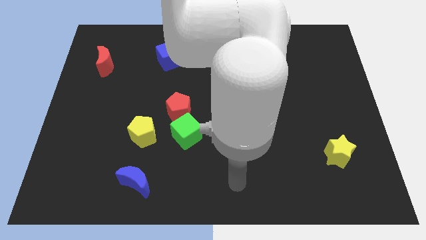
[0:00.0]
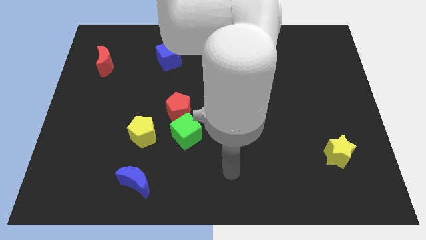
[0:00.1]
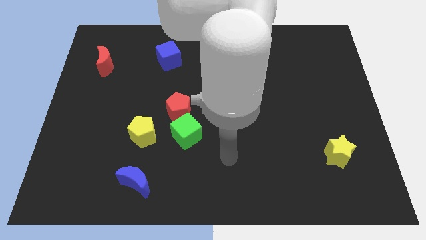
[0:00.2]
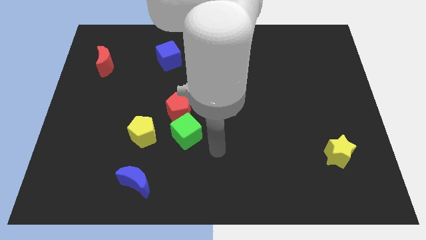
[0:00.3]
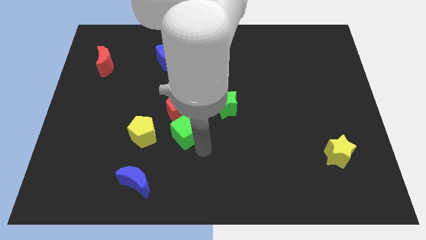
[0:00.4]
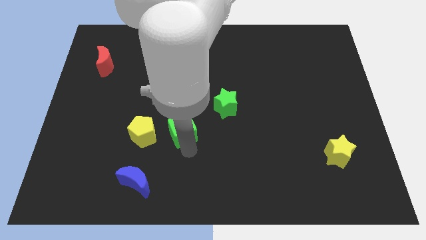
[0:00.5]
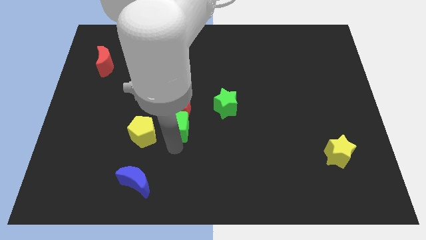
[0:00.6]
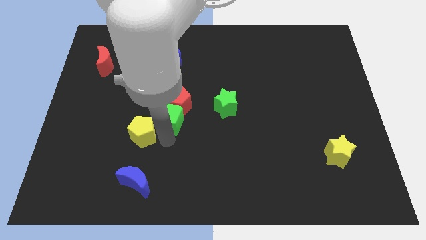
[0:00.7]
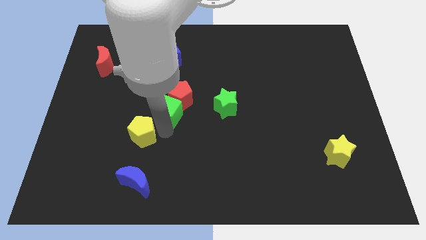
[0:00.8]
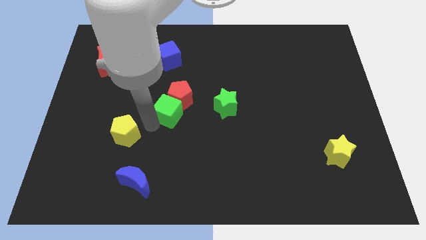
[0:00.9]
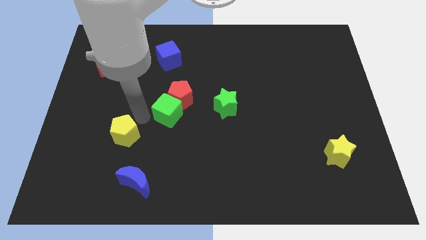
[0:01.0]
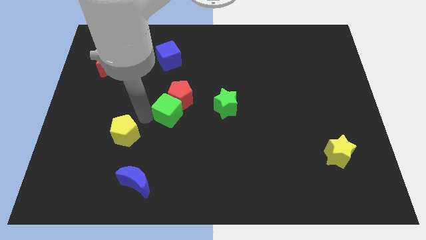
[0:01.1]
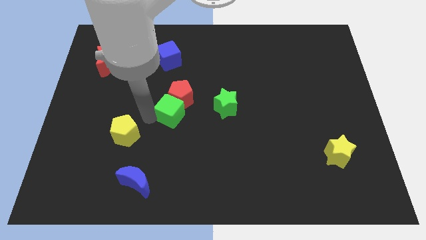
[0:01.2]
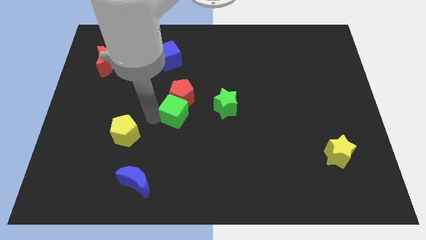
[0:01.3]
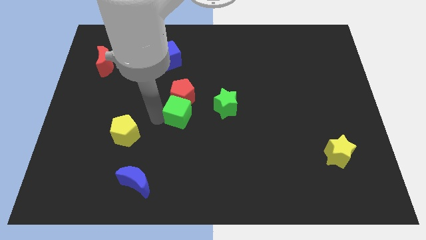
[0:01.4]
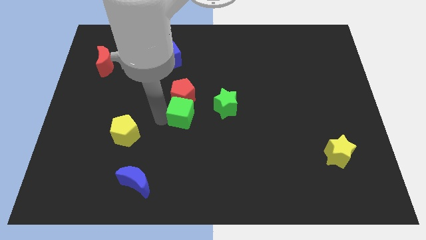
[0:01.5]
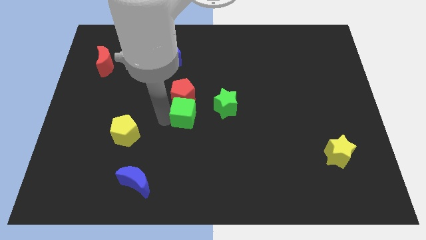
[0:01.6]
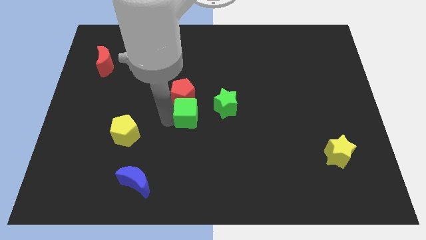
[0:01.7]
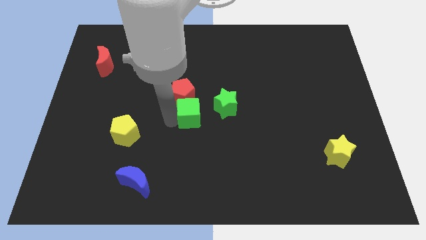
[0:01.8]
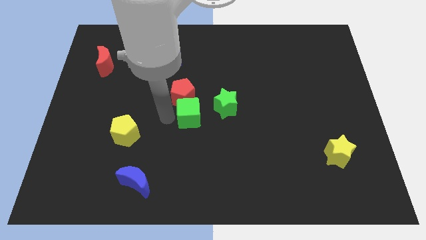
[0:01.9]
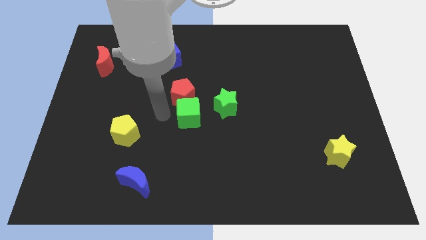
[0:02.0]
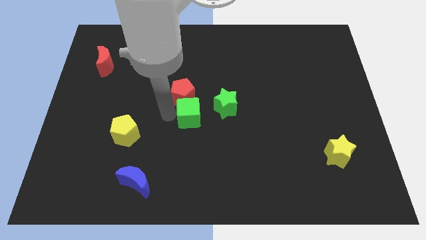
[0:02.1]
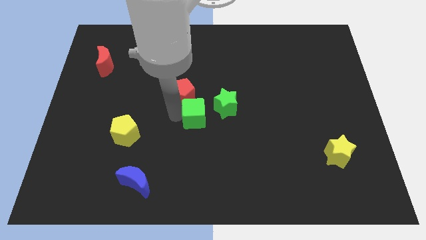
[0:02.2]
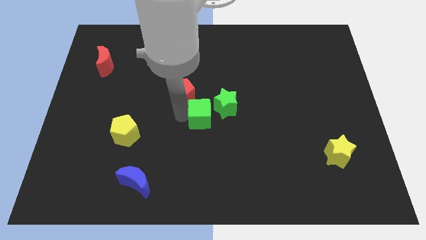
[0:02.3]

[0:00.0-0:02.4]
separate the green cube from the red pentagon and yellow pentagon

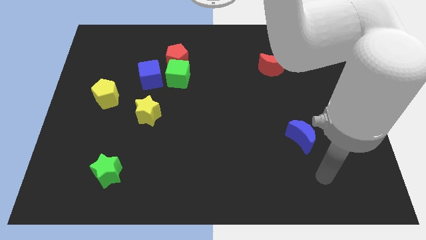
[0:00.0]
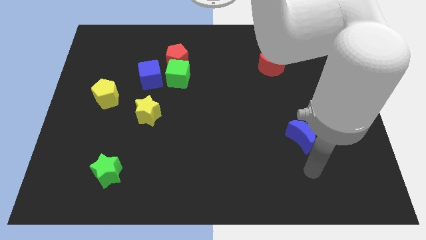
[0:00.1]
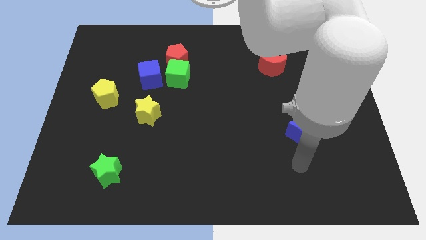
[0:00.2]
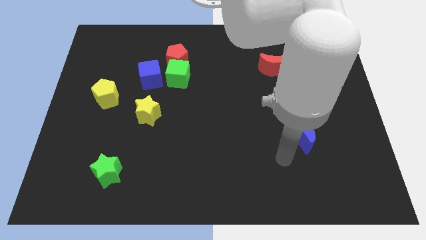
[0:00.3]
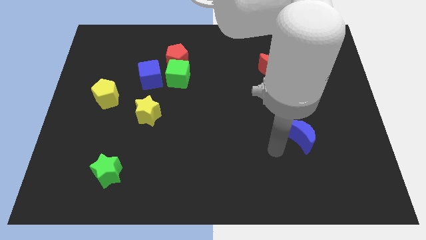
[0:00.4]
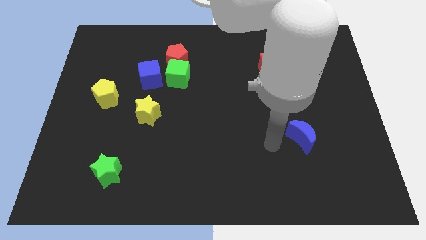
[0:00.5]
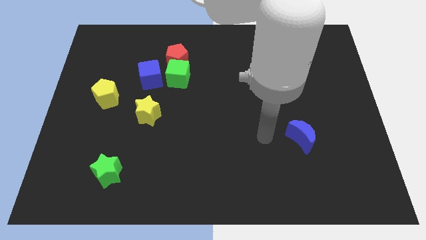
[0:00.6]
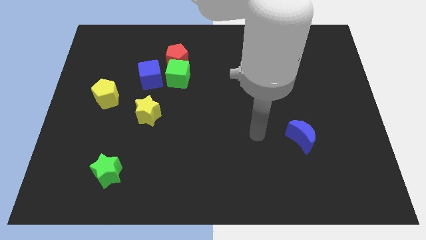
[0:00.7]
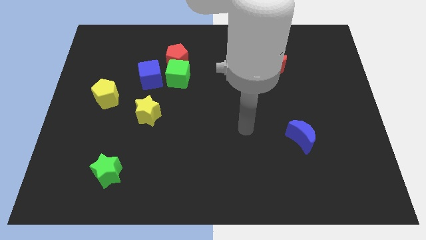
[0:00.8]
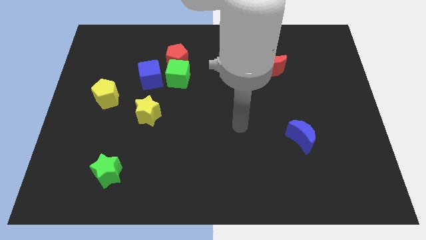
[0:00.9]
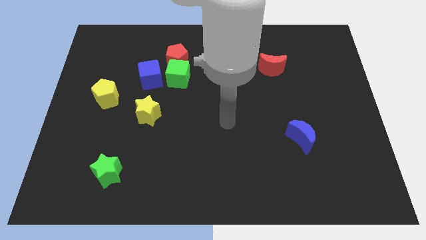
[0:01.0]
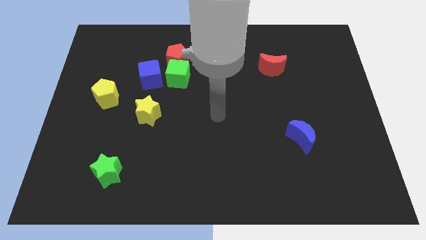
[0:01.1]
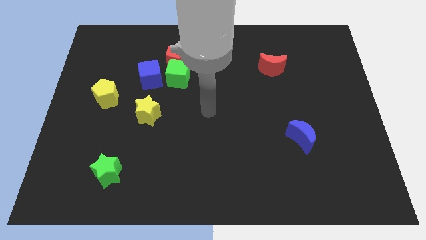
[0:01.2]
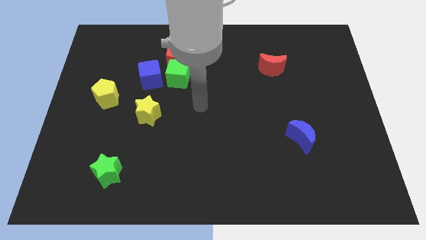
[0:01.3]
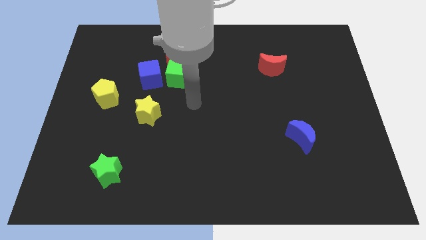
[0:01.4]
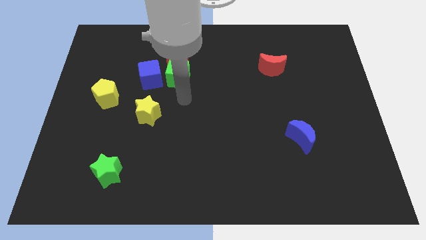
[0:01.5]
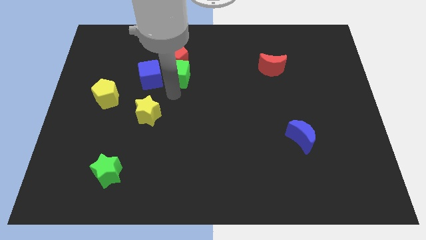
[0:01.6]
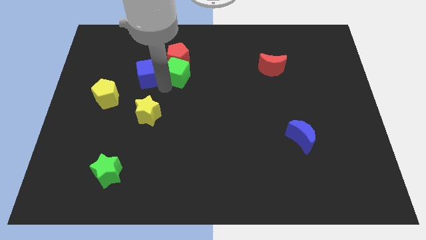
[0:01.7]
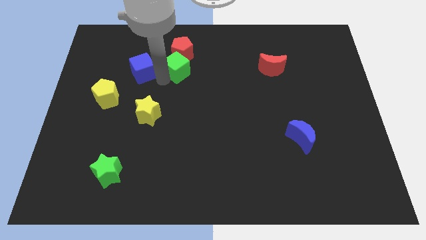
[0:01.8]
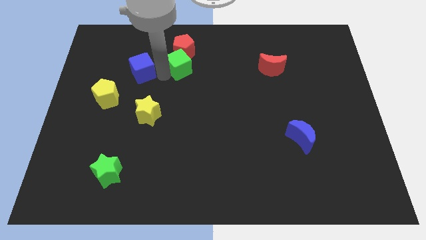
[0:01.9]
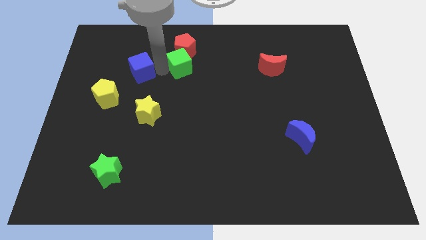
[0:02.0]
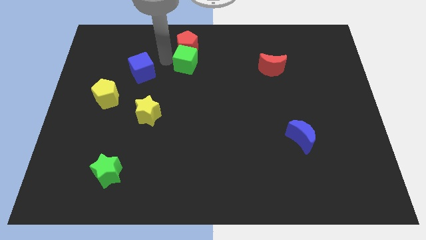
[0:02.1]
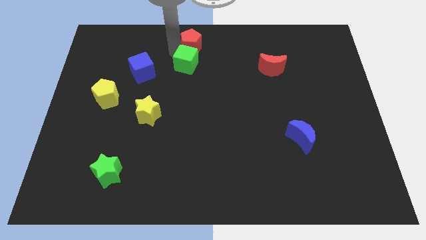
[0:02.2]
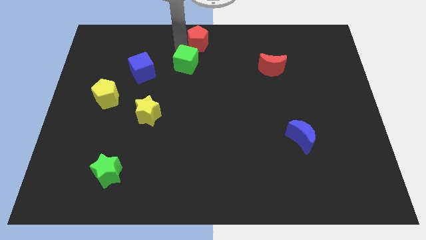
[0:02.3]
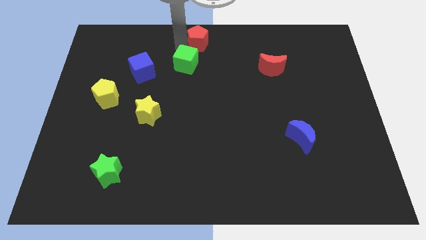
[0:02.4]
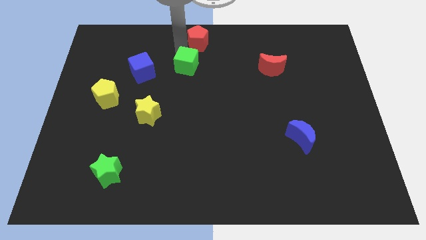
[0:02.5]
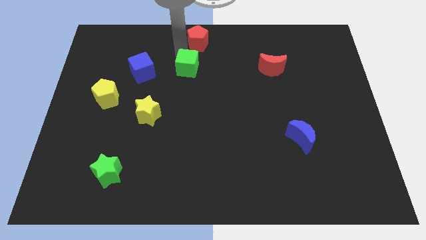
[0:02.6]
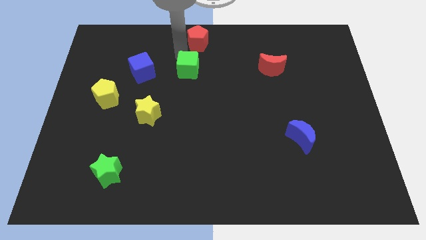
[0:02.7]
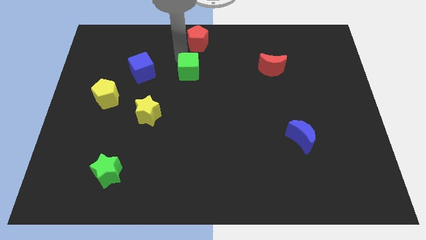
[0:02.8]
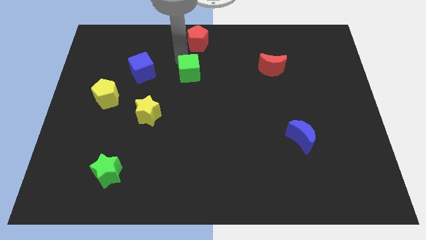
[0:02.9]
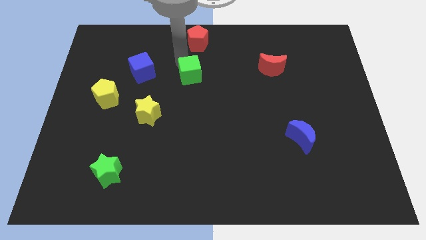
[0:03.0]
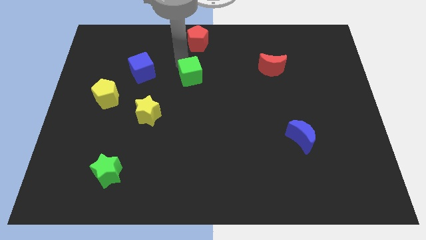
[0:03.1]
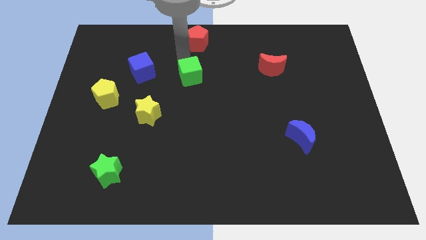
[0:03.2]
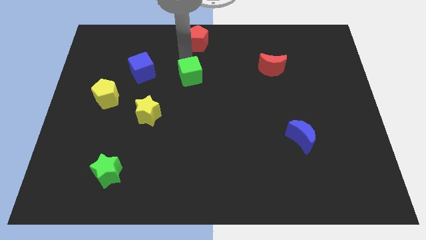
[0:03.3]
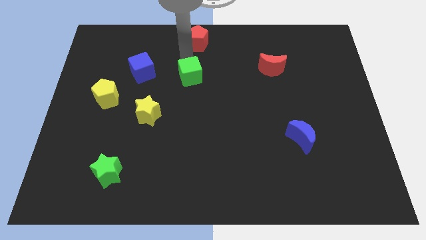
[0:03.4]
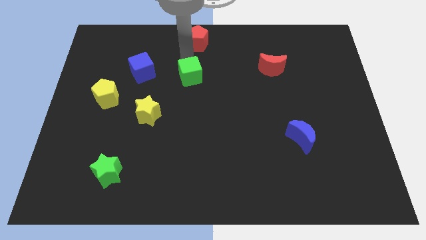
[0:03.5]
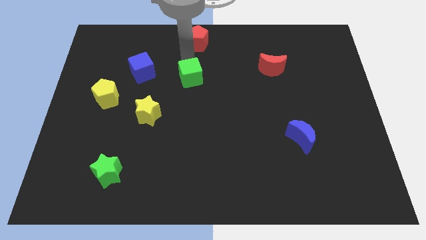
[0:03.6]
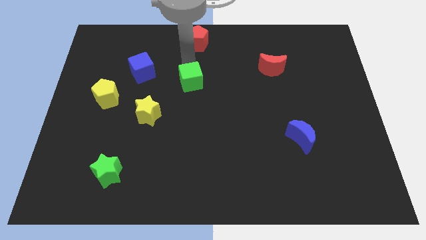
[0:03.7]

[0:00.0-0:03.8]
move the green cube away from the red pentagon and blue cube

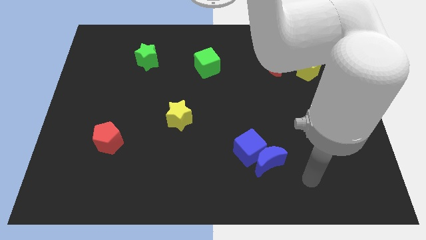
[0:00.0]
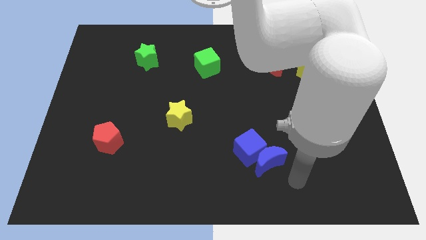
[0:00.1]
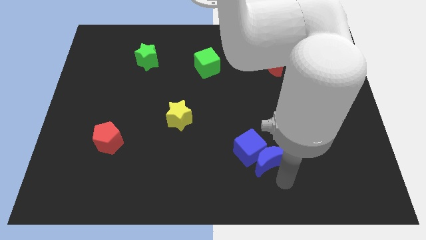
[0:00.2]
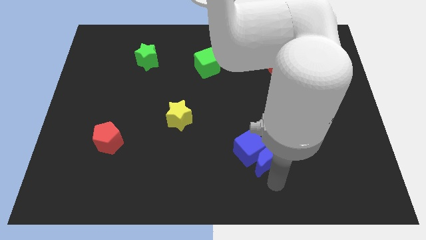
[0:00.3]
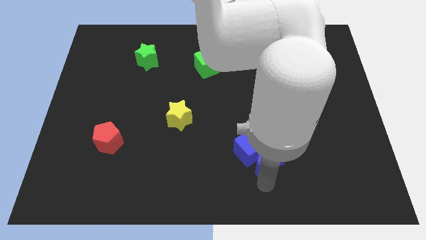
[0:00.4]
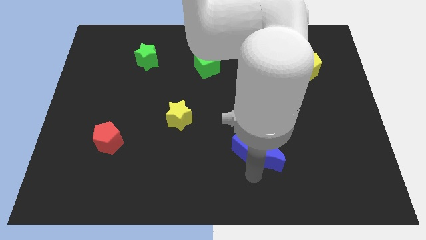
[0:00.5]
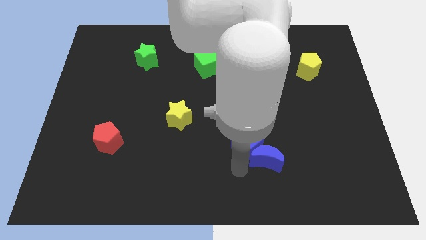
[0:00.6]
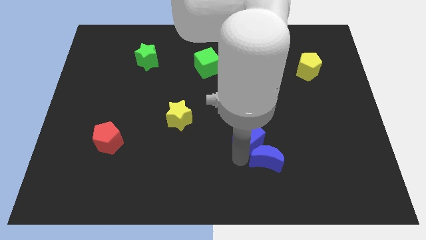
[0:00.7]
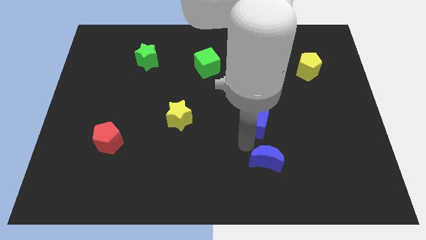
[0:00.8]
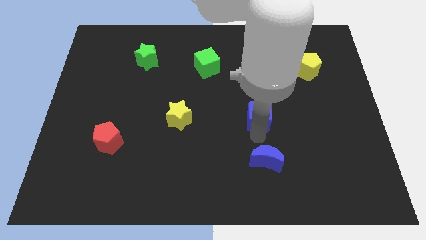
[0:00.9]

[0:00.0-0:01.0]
separate the blue moon from the blue cube

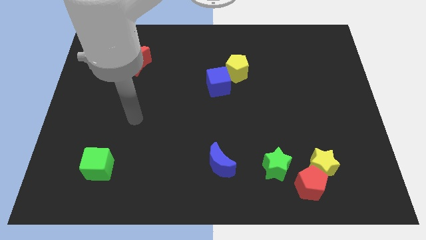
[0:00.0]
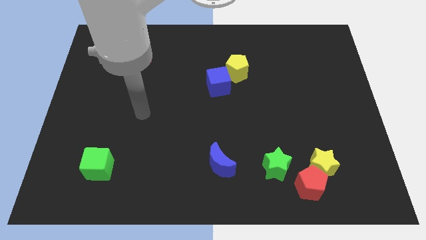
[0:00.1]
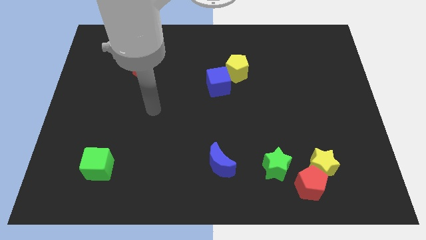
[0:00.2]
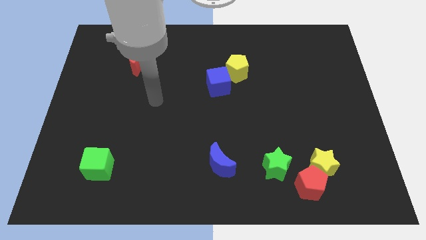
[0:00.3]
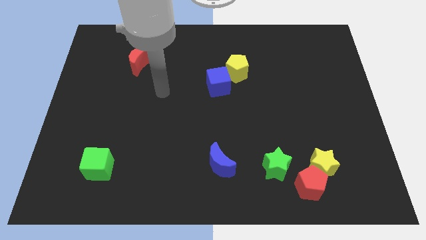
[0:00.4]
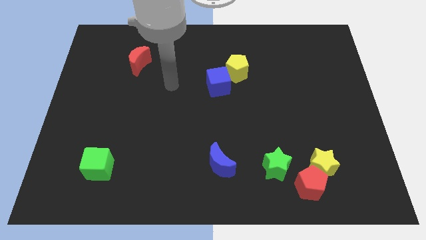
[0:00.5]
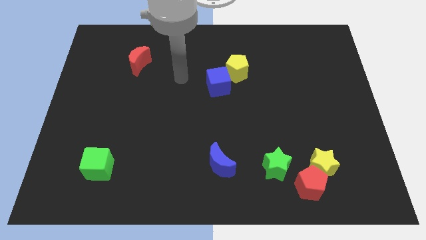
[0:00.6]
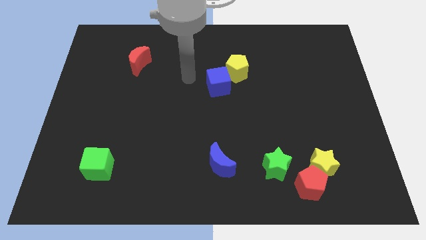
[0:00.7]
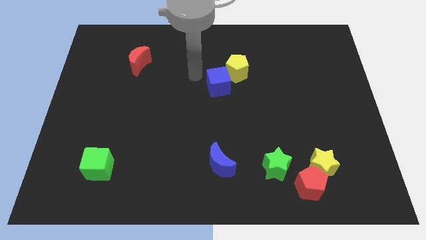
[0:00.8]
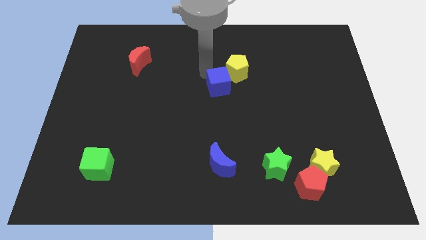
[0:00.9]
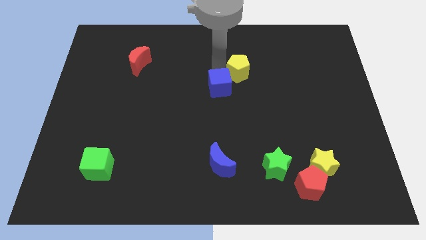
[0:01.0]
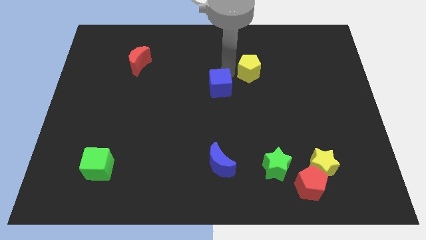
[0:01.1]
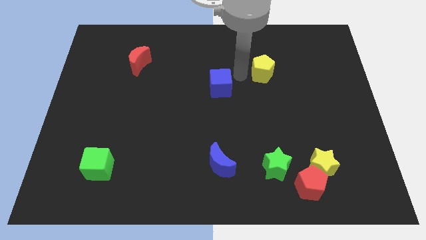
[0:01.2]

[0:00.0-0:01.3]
separate the blue cube from the yellow pentagon

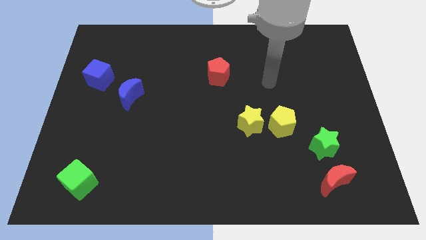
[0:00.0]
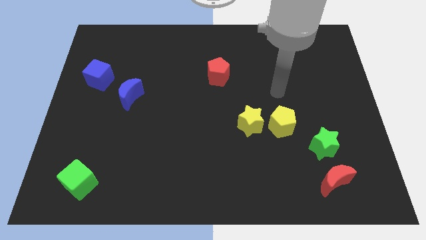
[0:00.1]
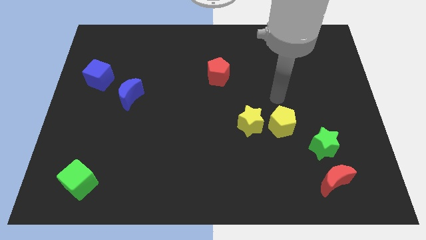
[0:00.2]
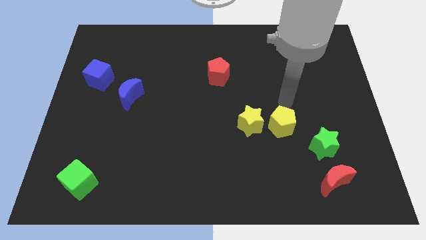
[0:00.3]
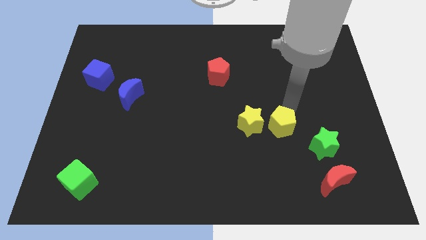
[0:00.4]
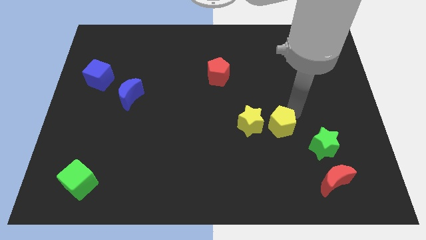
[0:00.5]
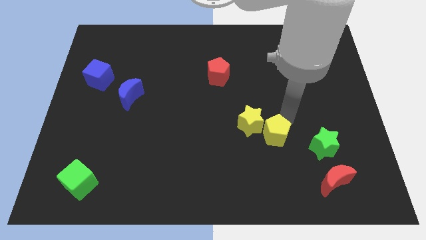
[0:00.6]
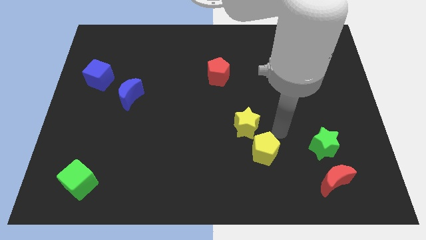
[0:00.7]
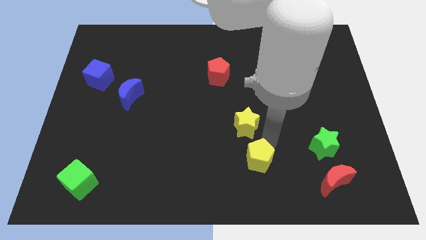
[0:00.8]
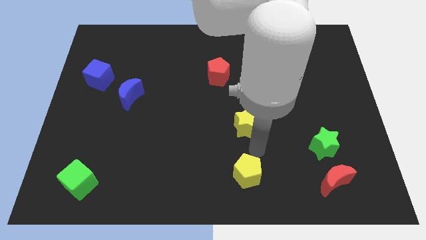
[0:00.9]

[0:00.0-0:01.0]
pull the yellow star apart from the yellow pentagon
